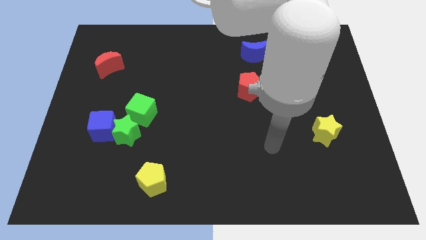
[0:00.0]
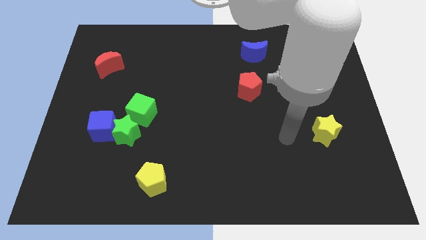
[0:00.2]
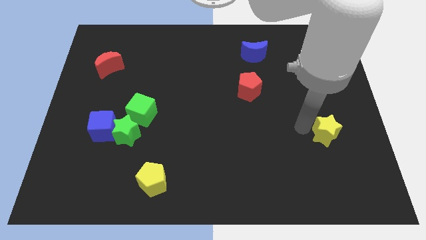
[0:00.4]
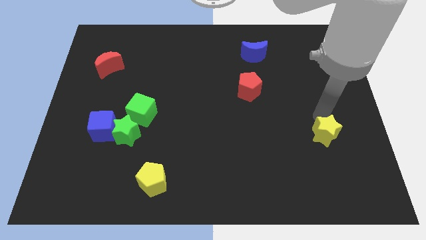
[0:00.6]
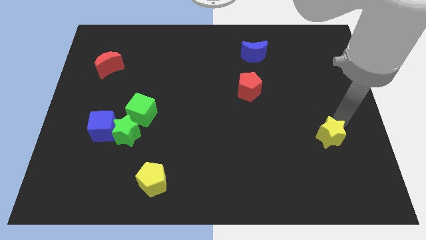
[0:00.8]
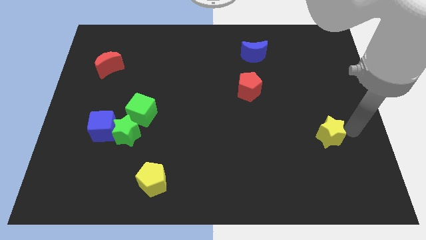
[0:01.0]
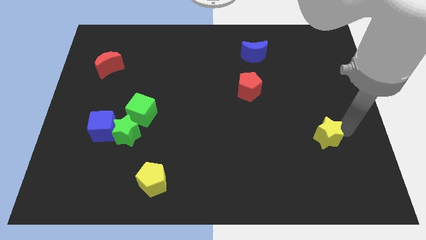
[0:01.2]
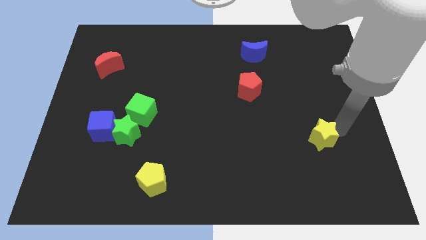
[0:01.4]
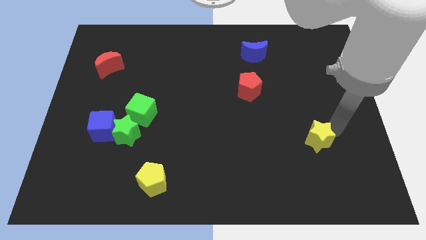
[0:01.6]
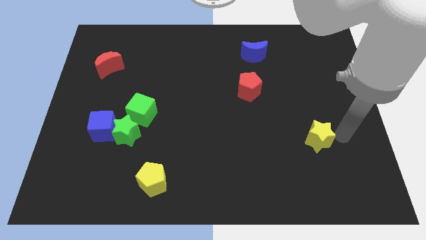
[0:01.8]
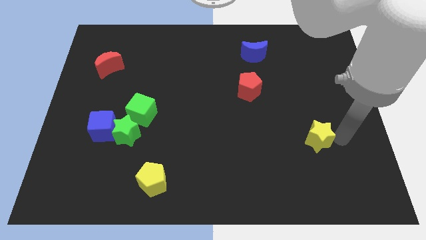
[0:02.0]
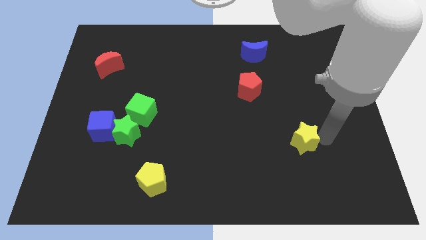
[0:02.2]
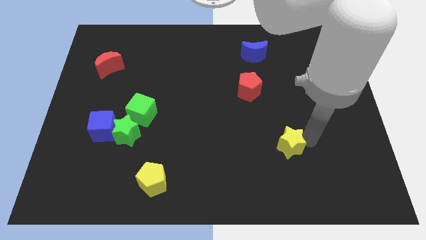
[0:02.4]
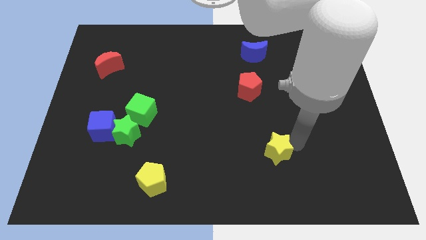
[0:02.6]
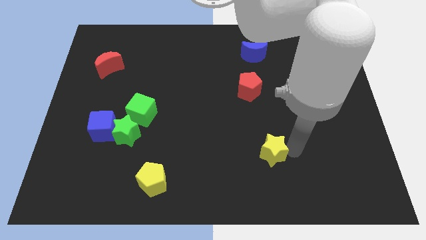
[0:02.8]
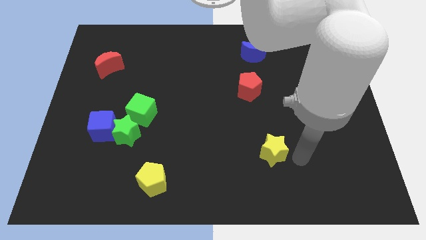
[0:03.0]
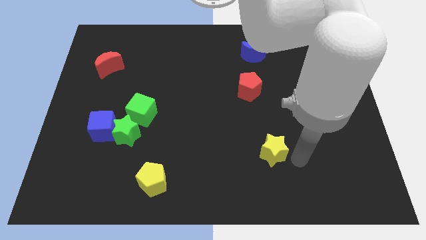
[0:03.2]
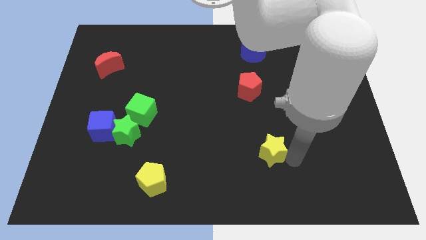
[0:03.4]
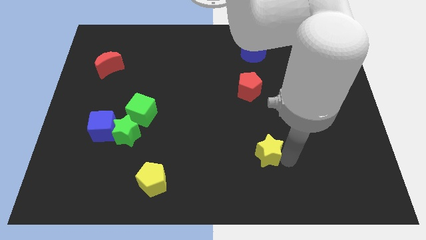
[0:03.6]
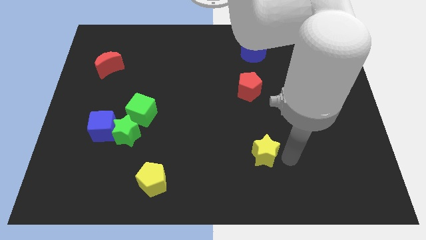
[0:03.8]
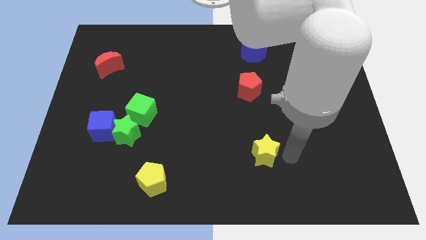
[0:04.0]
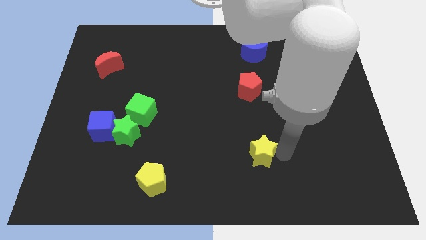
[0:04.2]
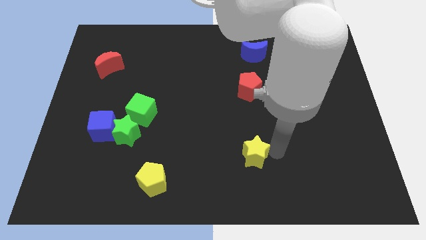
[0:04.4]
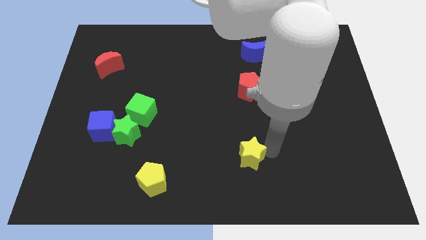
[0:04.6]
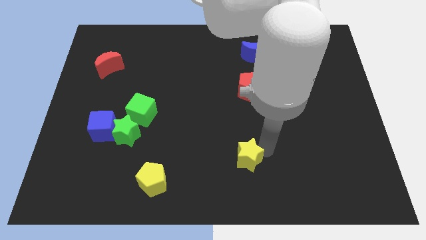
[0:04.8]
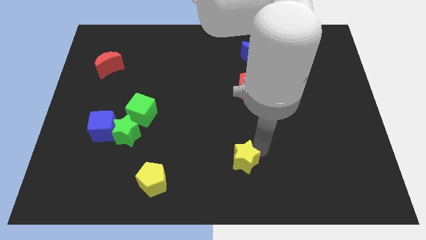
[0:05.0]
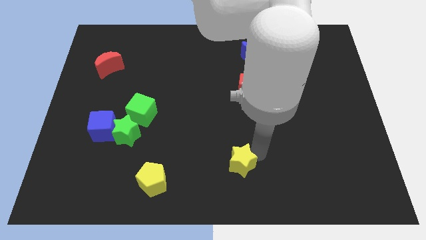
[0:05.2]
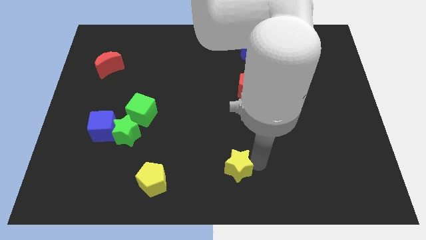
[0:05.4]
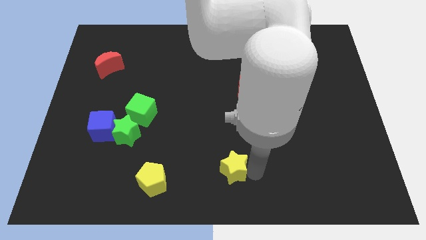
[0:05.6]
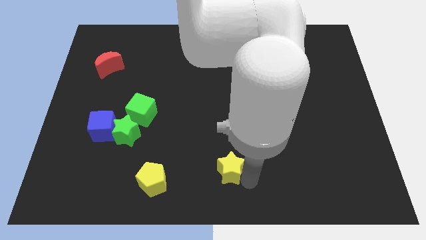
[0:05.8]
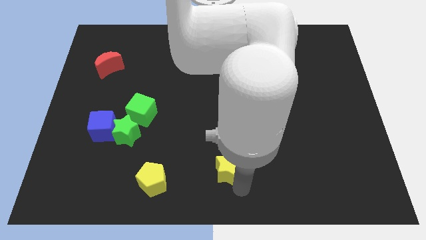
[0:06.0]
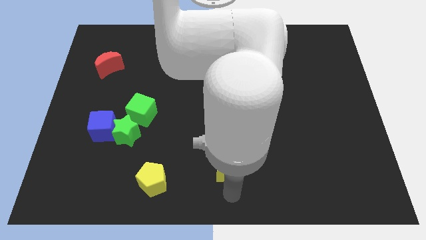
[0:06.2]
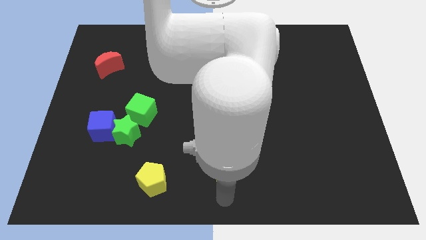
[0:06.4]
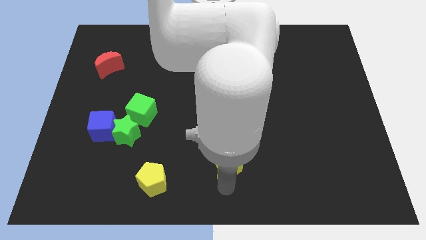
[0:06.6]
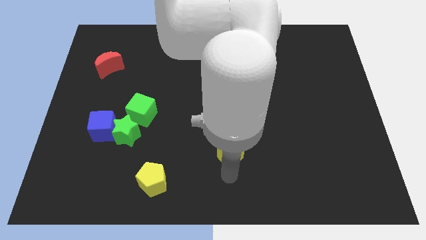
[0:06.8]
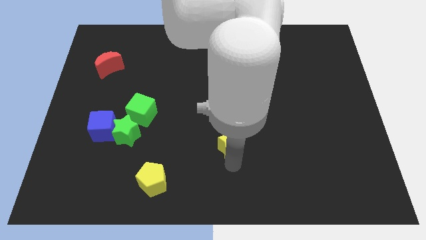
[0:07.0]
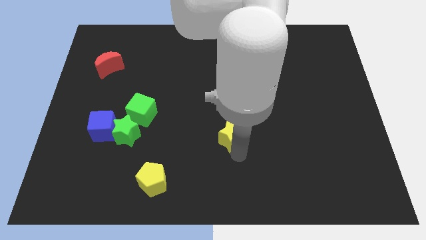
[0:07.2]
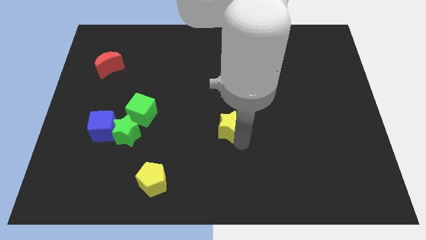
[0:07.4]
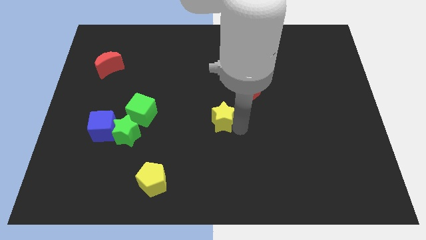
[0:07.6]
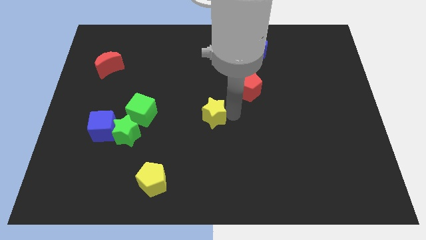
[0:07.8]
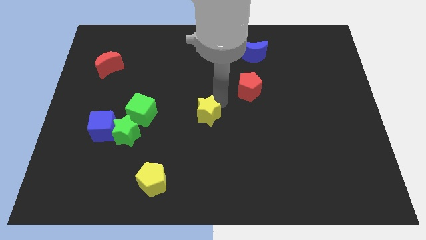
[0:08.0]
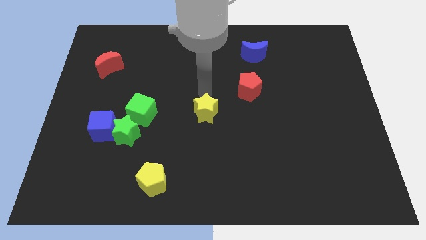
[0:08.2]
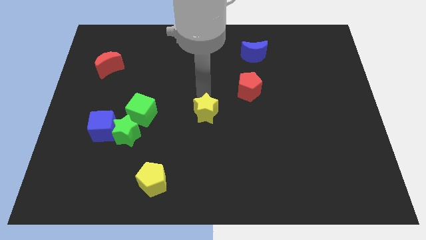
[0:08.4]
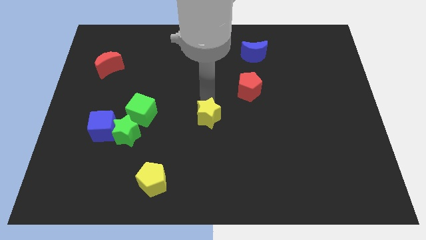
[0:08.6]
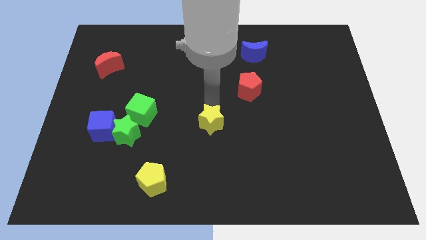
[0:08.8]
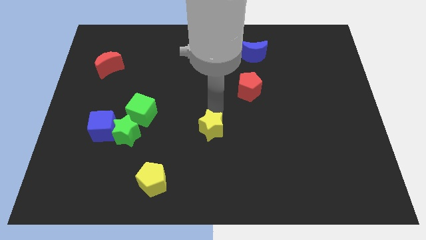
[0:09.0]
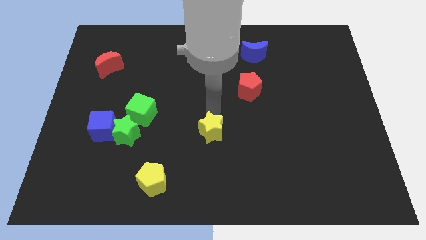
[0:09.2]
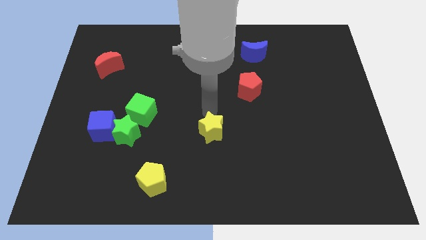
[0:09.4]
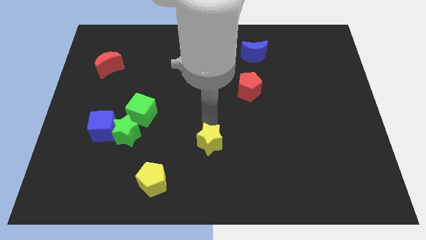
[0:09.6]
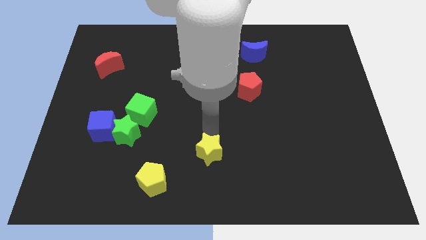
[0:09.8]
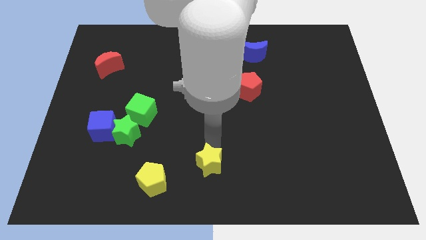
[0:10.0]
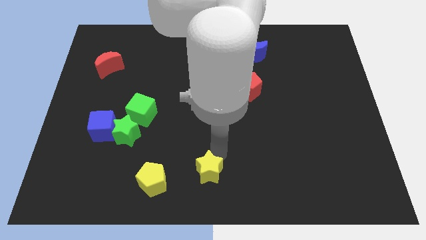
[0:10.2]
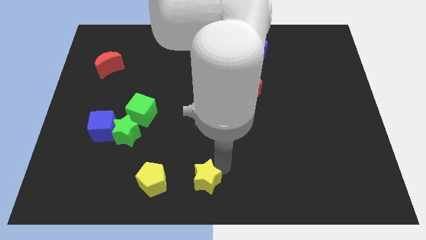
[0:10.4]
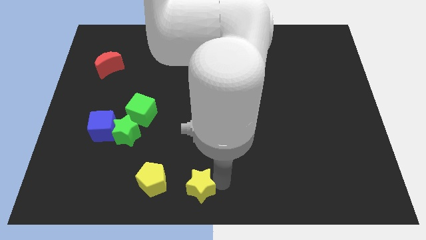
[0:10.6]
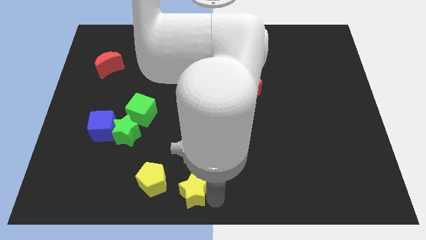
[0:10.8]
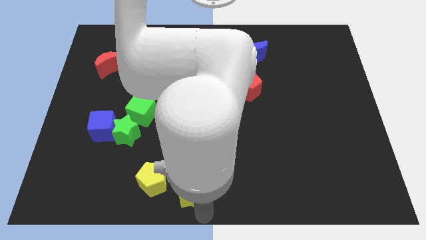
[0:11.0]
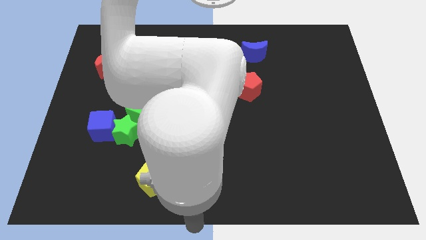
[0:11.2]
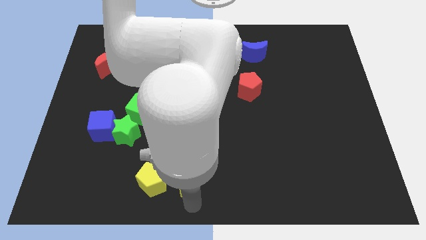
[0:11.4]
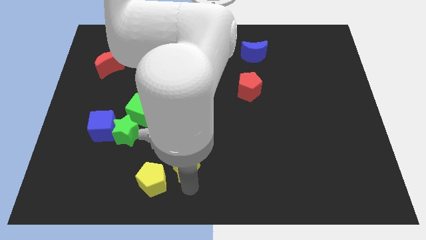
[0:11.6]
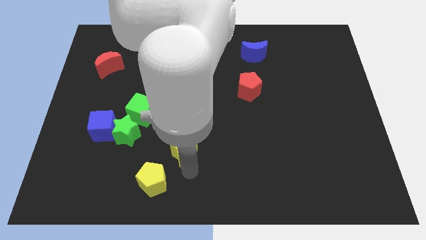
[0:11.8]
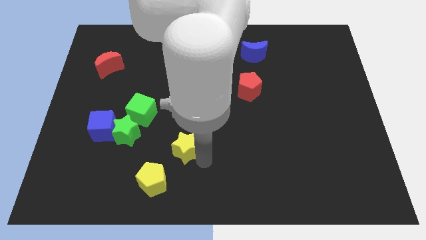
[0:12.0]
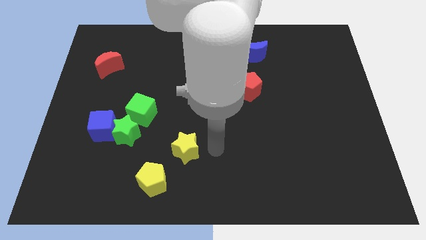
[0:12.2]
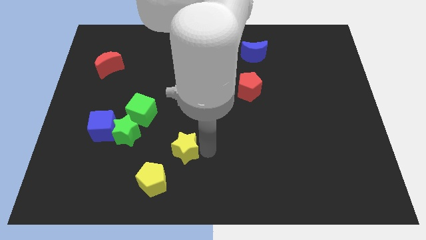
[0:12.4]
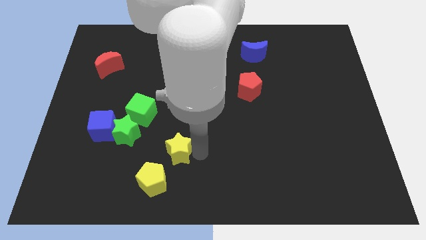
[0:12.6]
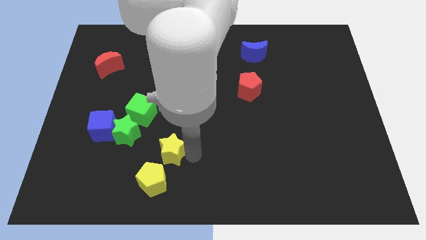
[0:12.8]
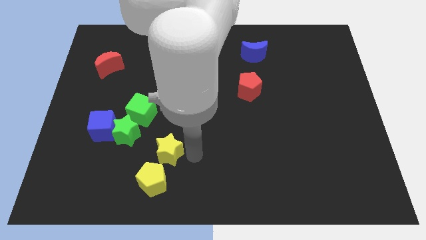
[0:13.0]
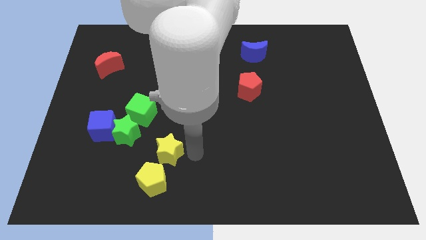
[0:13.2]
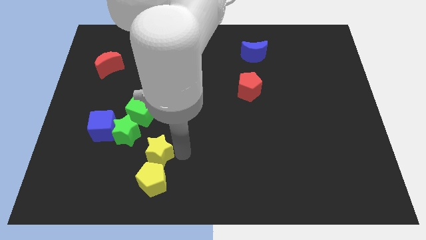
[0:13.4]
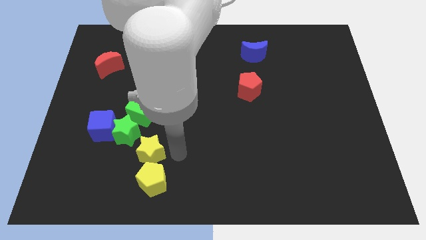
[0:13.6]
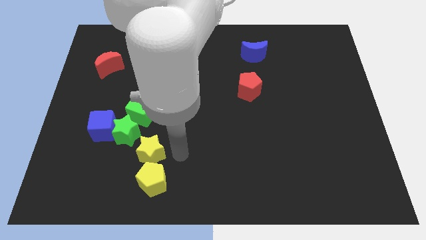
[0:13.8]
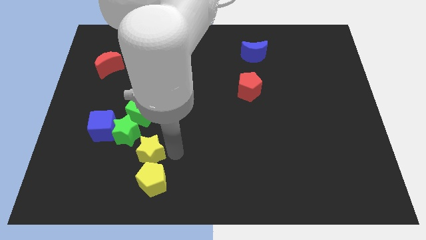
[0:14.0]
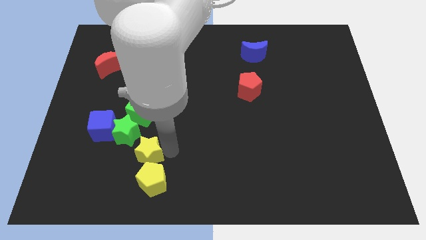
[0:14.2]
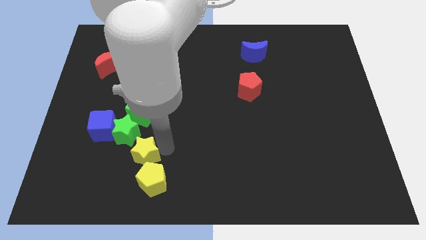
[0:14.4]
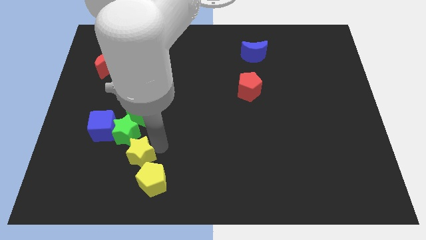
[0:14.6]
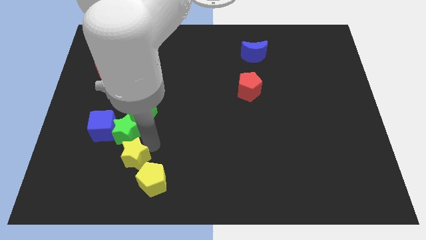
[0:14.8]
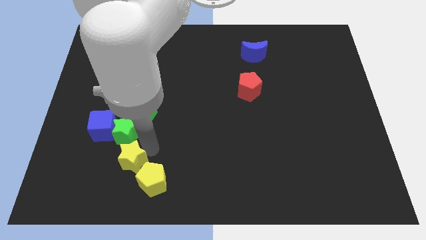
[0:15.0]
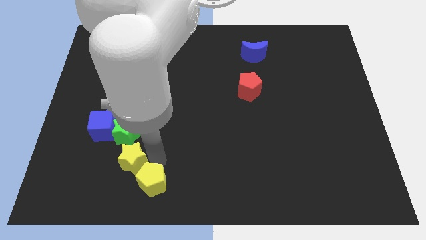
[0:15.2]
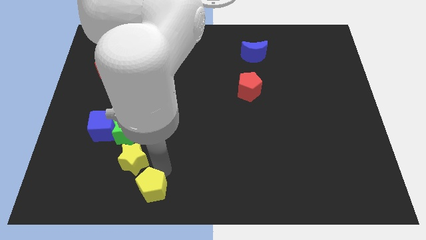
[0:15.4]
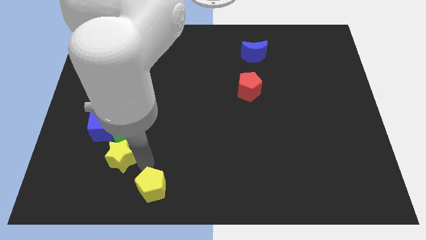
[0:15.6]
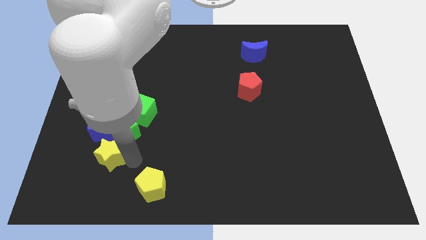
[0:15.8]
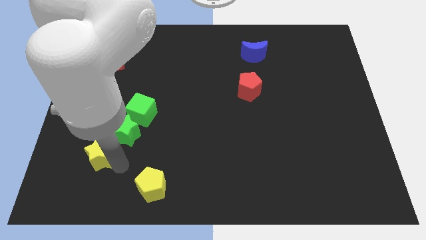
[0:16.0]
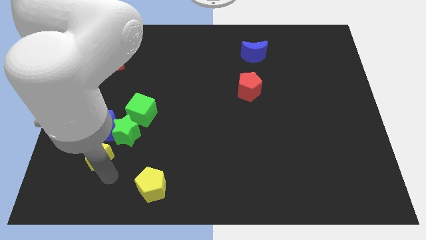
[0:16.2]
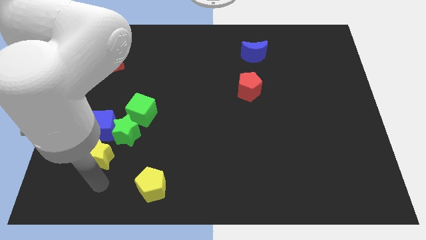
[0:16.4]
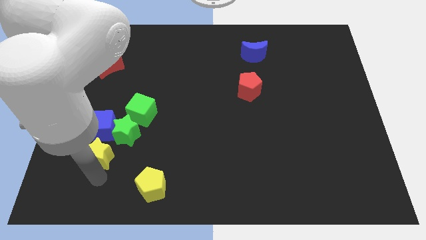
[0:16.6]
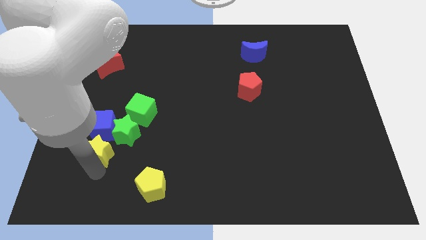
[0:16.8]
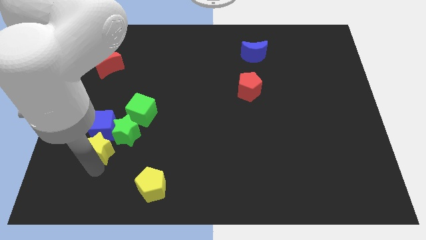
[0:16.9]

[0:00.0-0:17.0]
put the yellow star close to the blue cube
